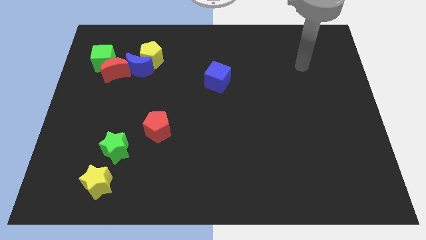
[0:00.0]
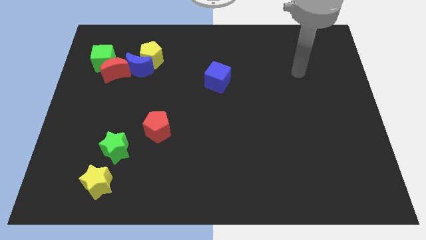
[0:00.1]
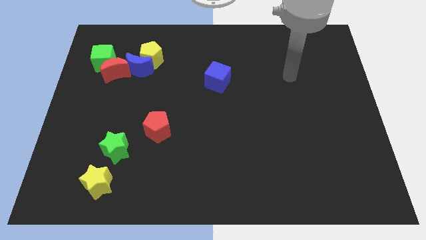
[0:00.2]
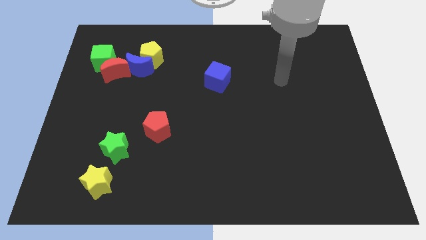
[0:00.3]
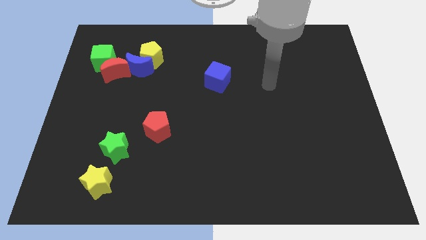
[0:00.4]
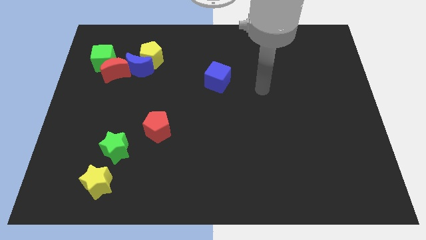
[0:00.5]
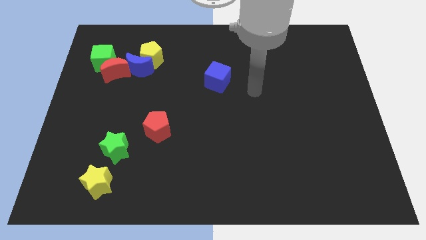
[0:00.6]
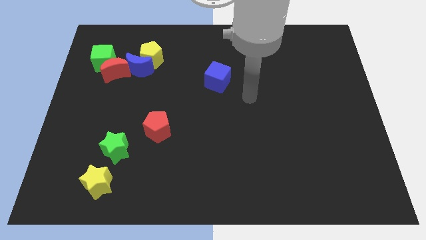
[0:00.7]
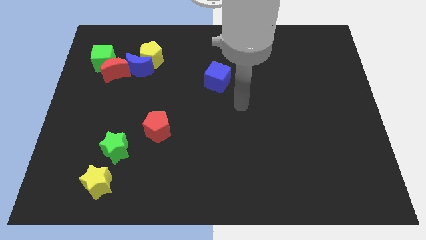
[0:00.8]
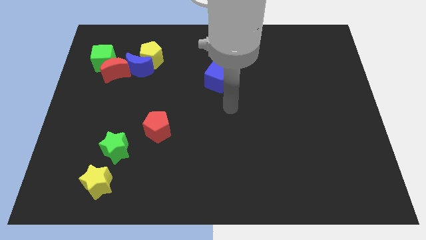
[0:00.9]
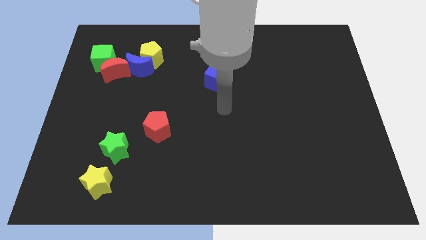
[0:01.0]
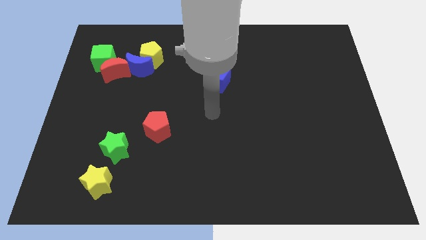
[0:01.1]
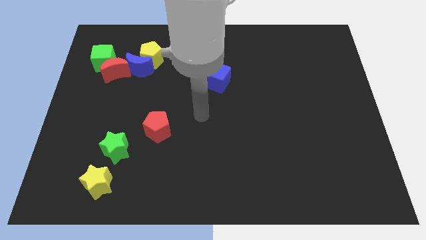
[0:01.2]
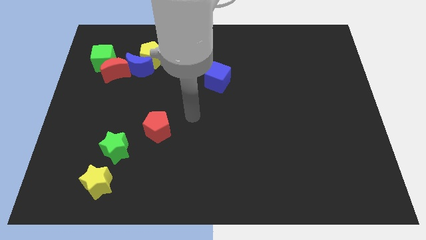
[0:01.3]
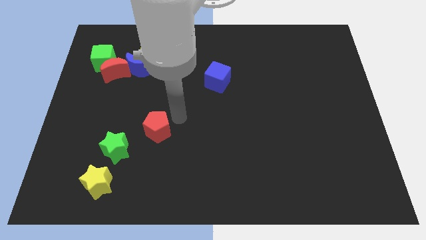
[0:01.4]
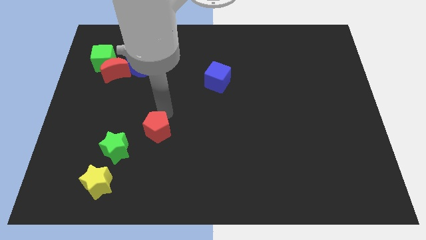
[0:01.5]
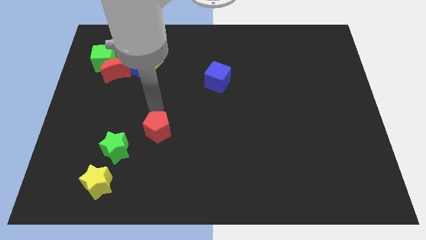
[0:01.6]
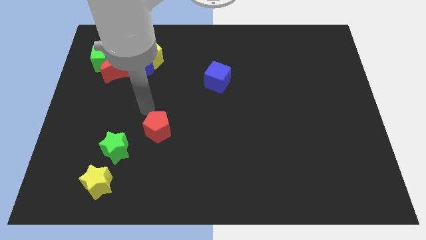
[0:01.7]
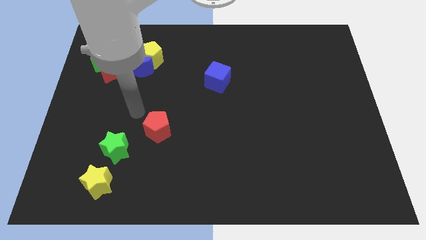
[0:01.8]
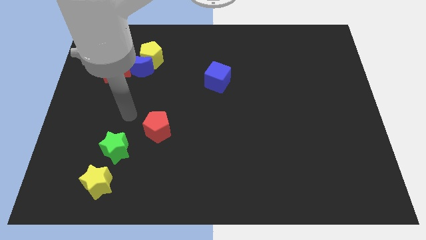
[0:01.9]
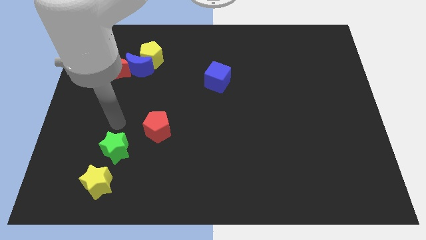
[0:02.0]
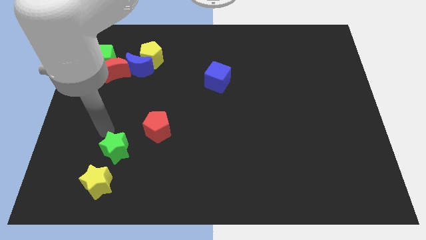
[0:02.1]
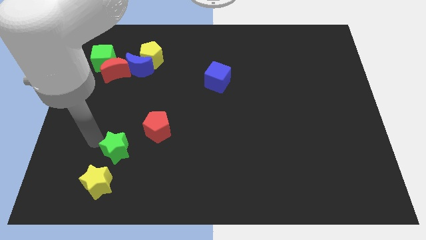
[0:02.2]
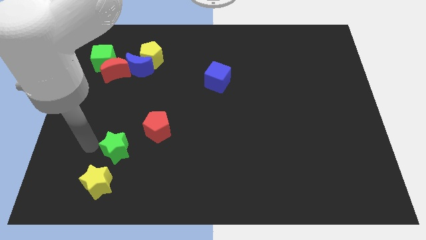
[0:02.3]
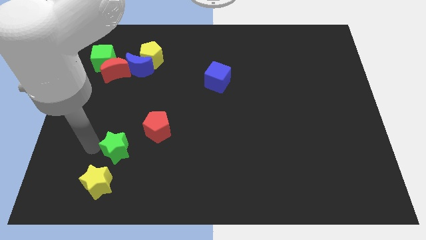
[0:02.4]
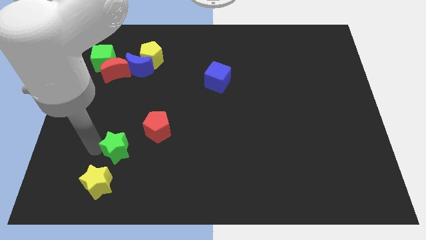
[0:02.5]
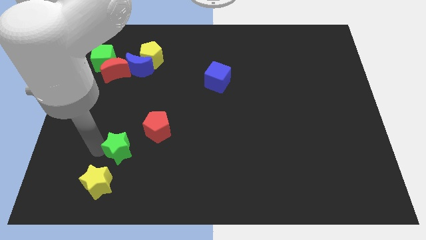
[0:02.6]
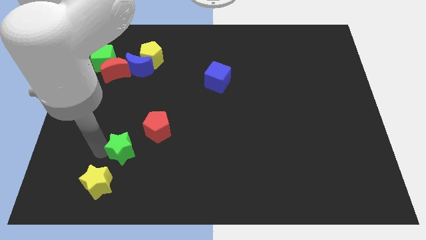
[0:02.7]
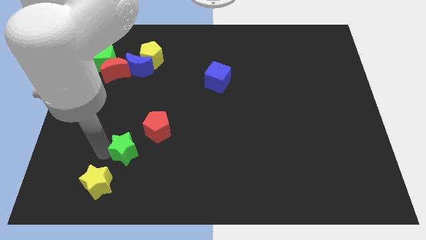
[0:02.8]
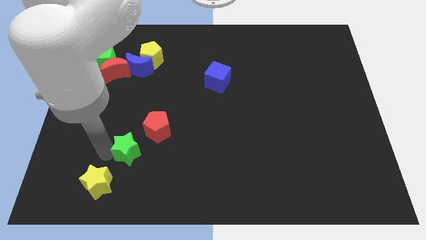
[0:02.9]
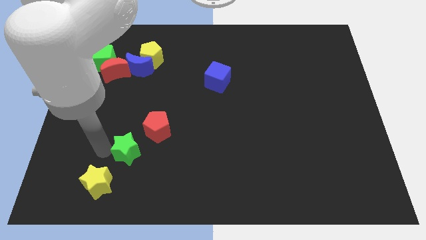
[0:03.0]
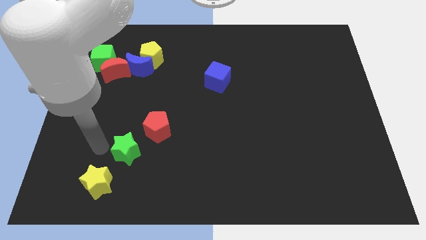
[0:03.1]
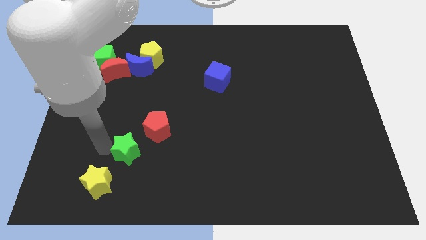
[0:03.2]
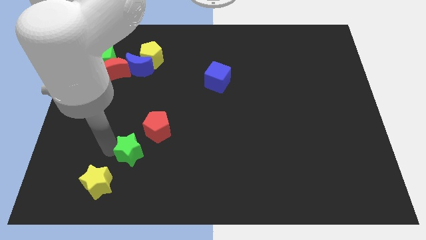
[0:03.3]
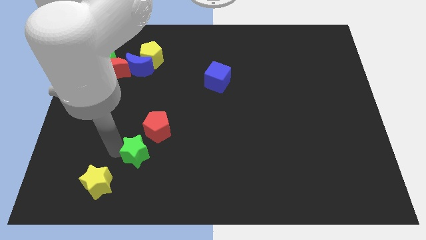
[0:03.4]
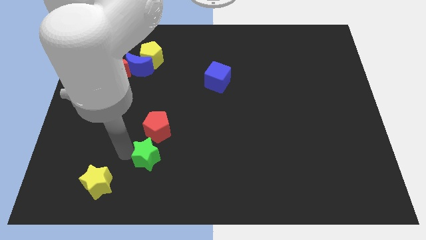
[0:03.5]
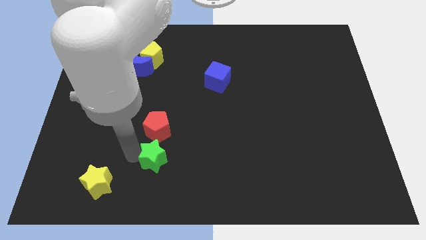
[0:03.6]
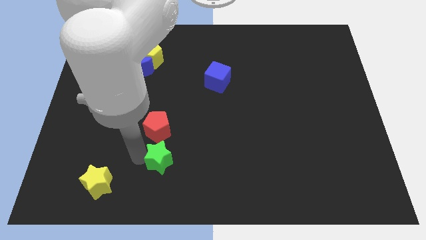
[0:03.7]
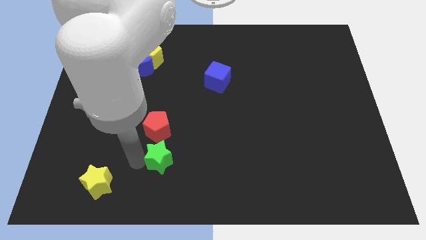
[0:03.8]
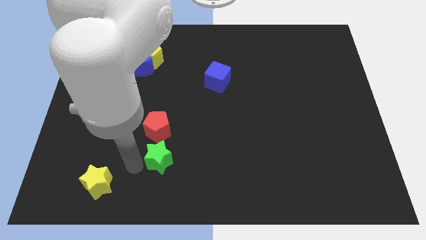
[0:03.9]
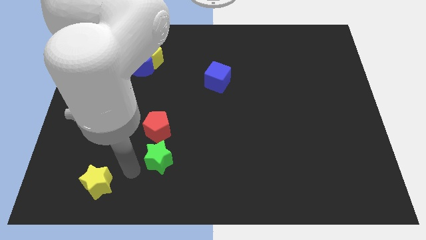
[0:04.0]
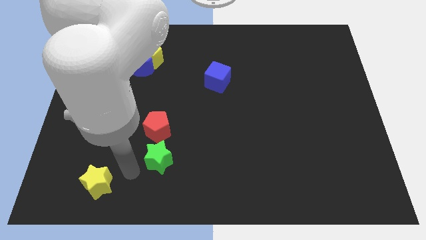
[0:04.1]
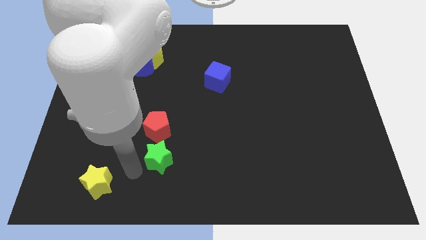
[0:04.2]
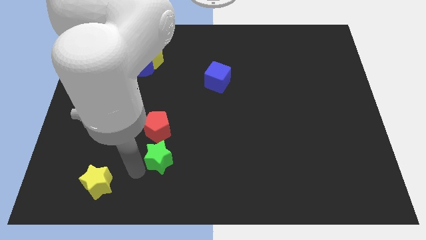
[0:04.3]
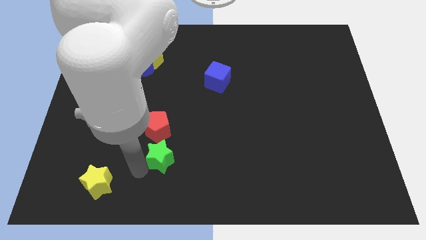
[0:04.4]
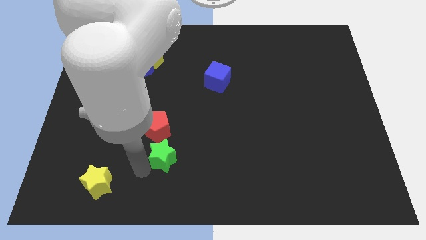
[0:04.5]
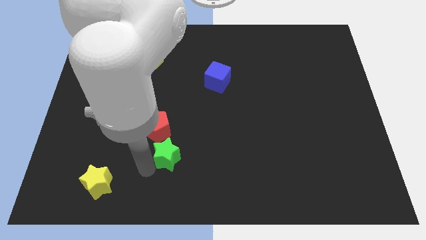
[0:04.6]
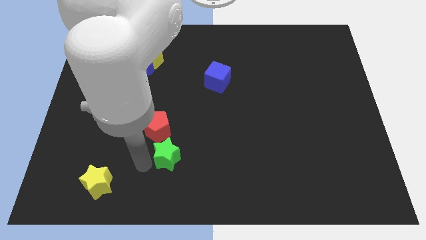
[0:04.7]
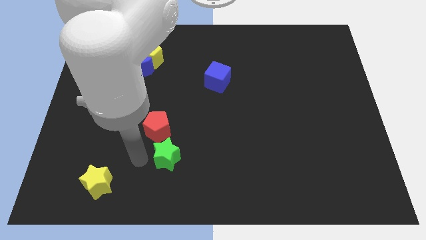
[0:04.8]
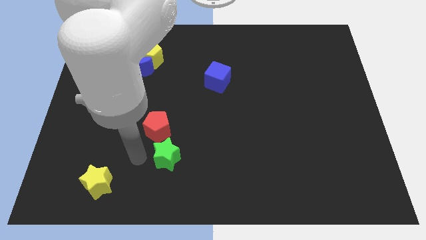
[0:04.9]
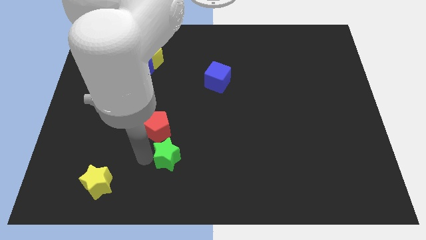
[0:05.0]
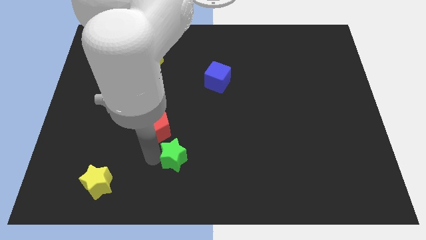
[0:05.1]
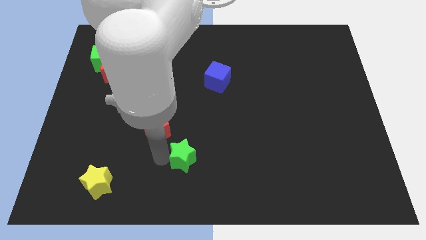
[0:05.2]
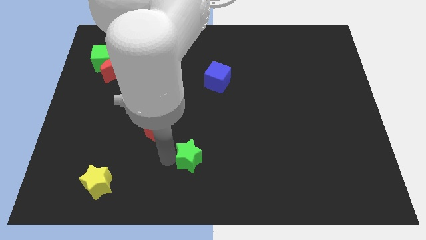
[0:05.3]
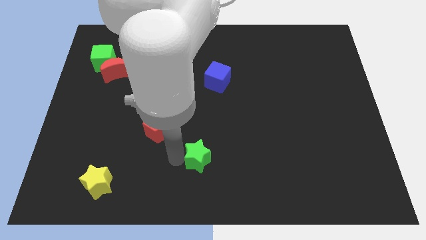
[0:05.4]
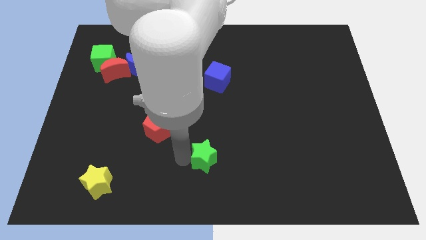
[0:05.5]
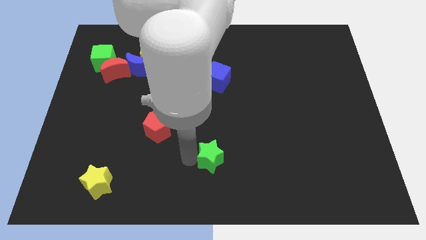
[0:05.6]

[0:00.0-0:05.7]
slide the green star to the right

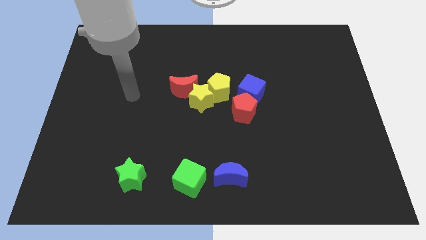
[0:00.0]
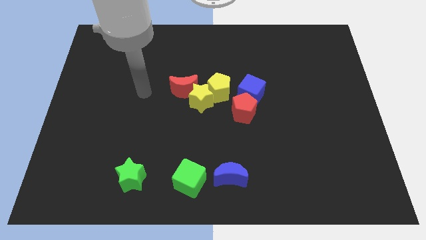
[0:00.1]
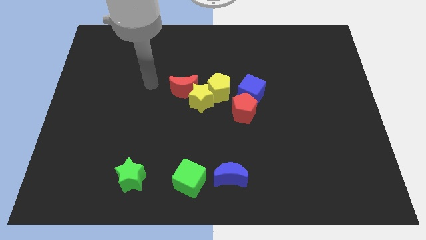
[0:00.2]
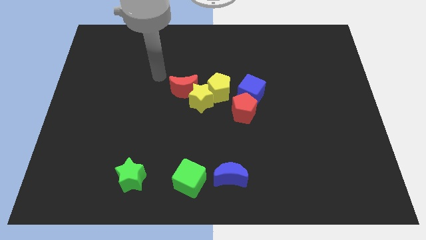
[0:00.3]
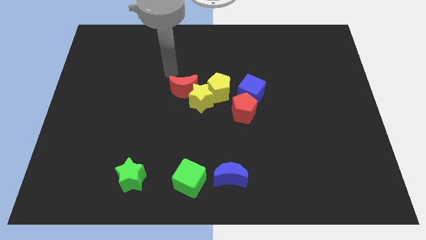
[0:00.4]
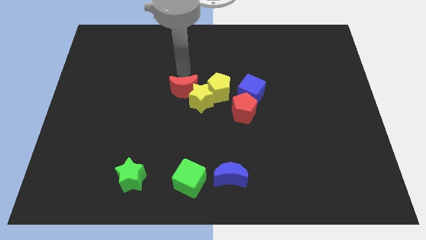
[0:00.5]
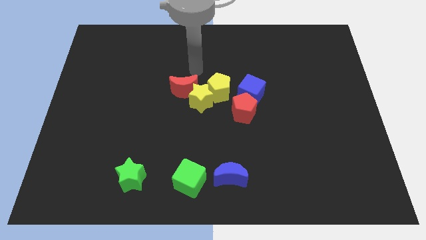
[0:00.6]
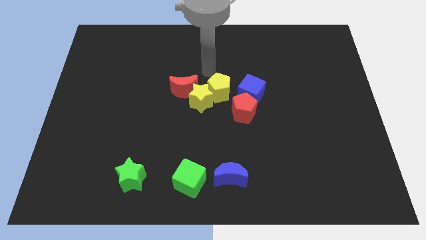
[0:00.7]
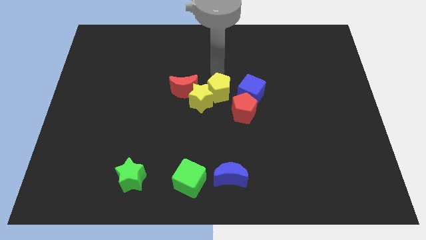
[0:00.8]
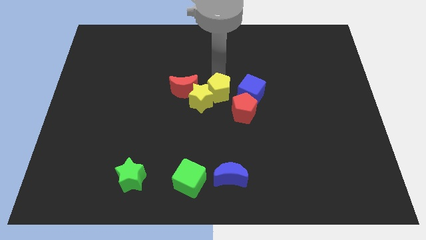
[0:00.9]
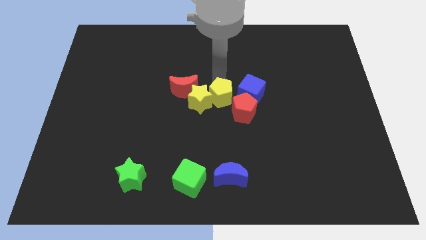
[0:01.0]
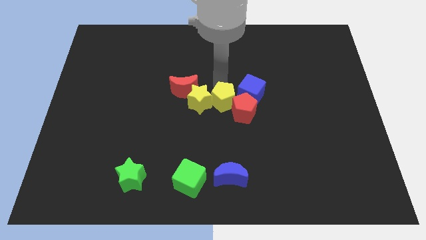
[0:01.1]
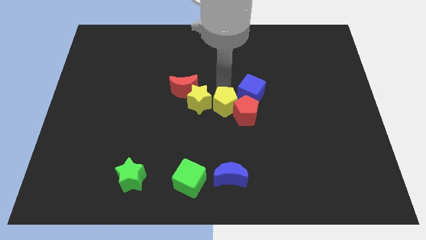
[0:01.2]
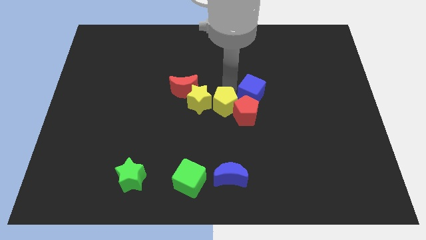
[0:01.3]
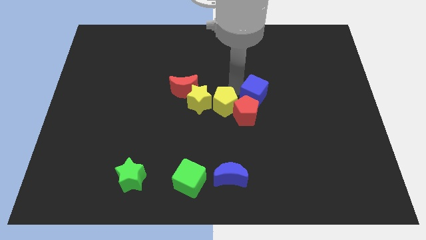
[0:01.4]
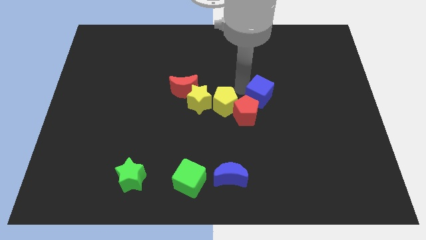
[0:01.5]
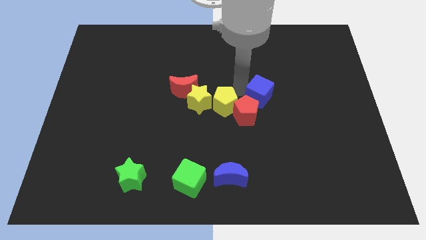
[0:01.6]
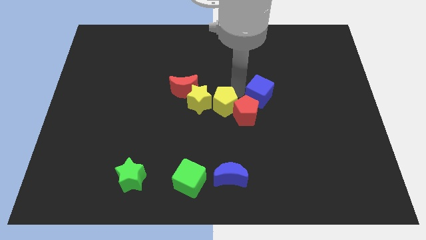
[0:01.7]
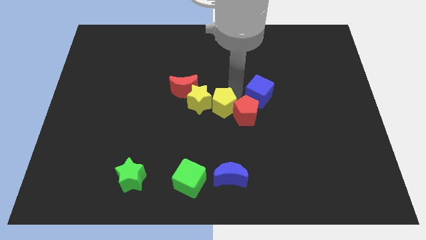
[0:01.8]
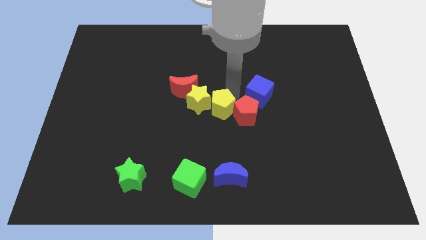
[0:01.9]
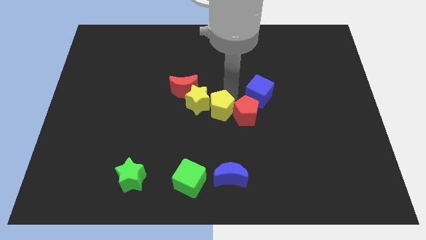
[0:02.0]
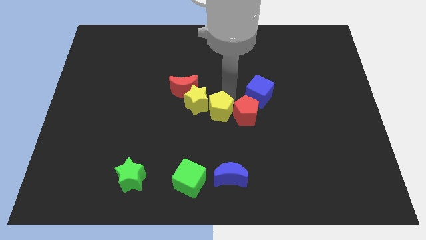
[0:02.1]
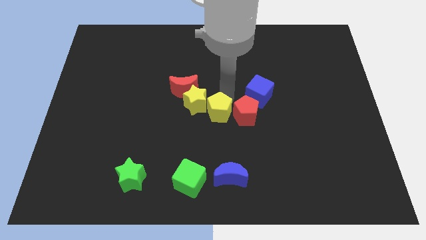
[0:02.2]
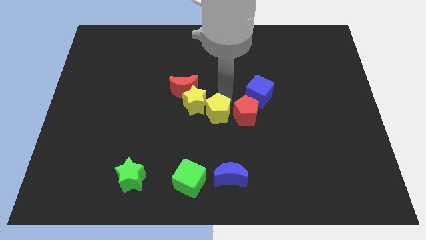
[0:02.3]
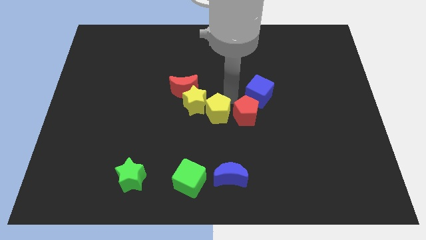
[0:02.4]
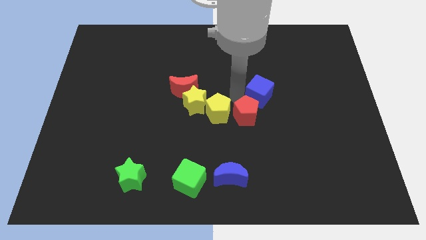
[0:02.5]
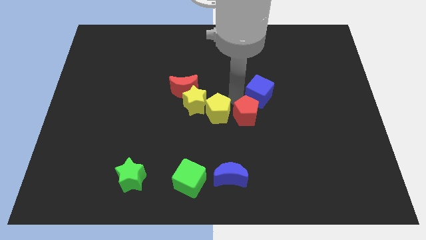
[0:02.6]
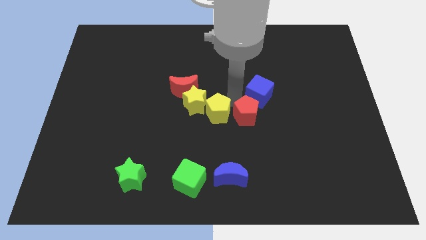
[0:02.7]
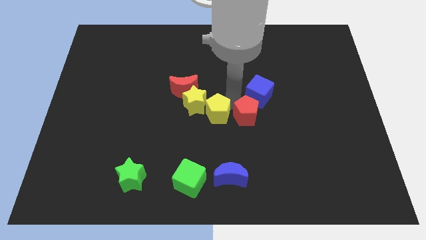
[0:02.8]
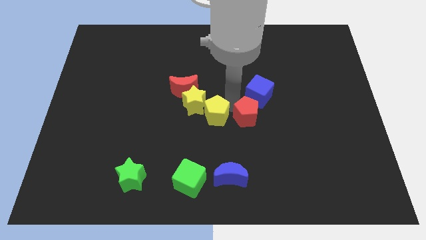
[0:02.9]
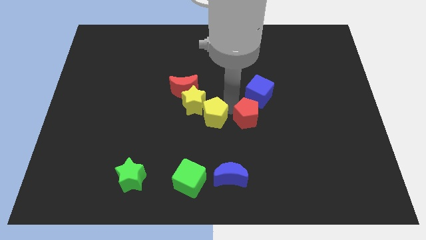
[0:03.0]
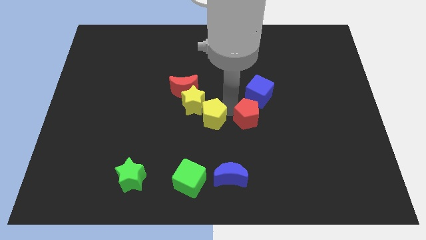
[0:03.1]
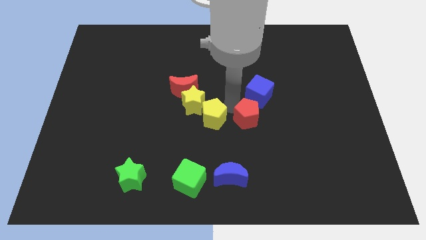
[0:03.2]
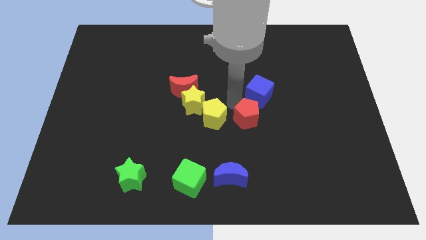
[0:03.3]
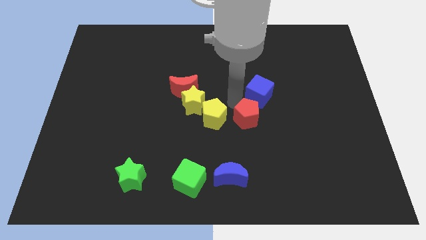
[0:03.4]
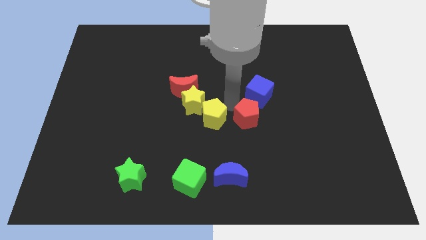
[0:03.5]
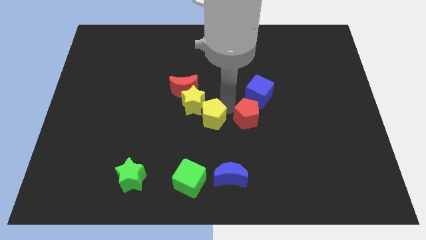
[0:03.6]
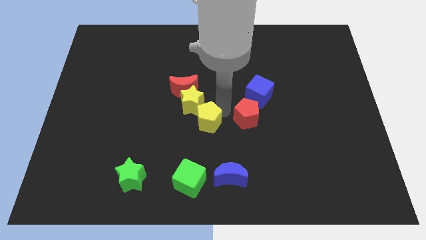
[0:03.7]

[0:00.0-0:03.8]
move the yellow pentagon diagonally down and to the left slightly
